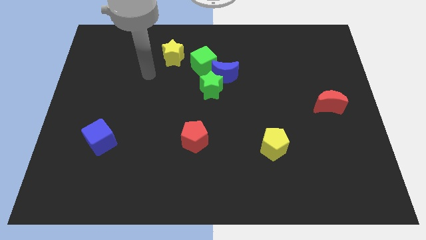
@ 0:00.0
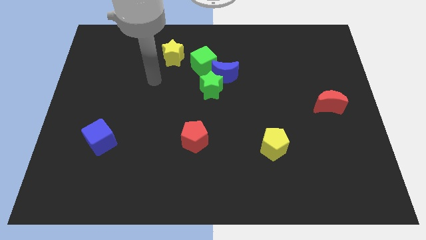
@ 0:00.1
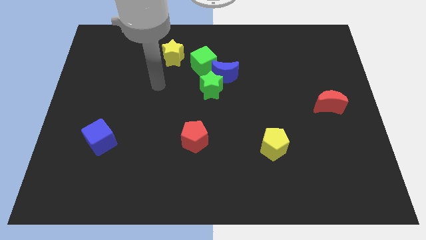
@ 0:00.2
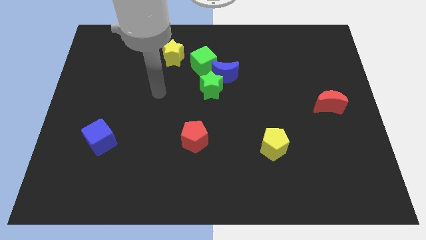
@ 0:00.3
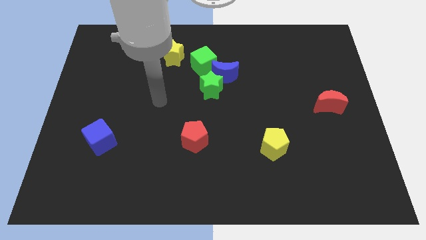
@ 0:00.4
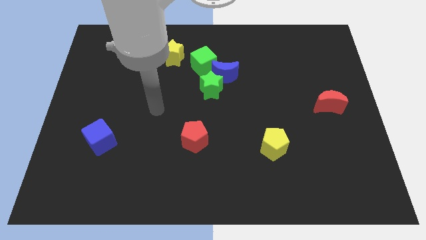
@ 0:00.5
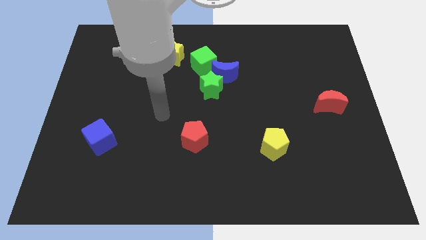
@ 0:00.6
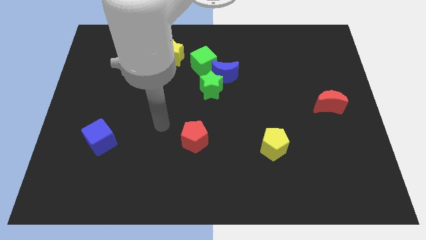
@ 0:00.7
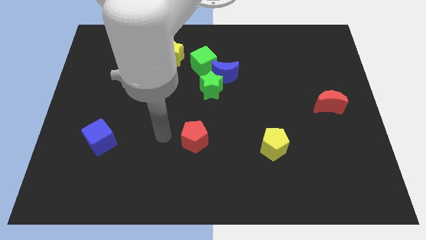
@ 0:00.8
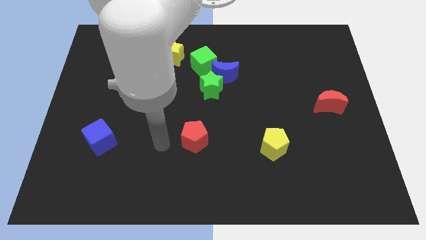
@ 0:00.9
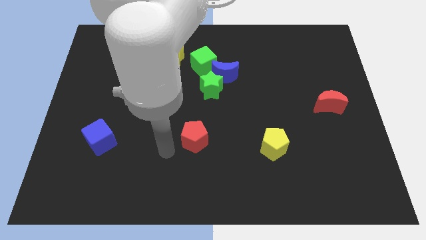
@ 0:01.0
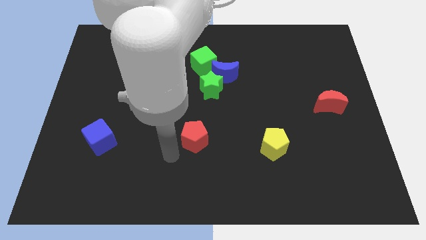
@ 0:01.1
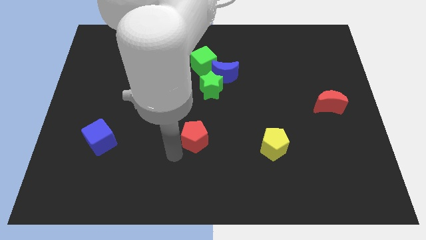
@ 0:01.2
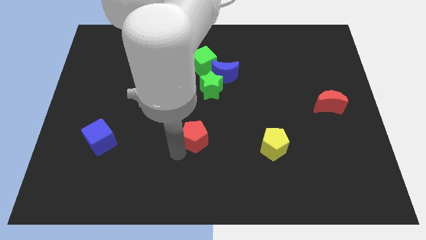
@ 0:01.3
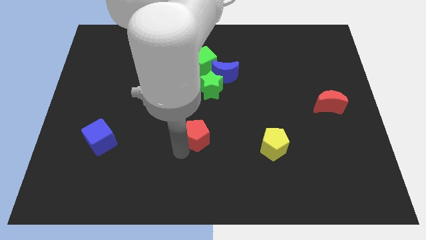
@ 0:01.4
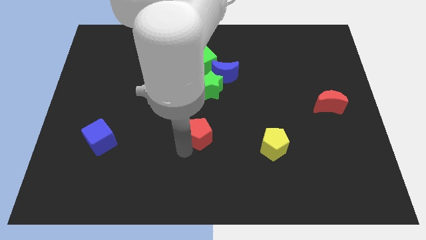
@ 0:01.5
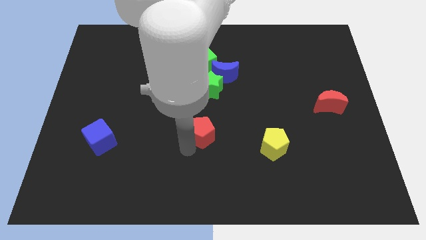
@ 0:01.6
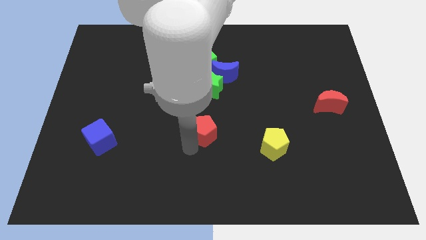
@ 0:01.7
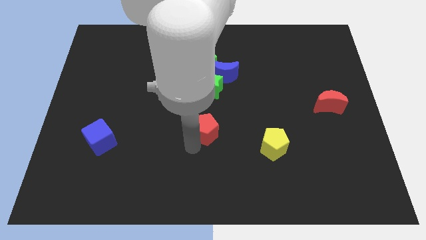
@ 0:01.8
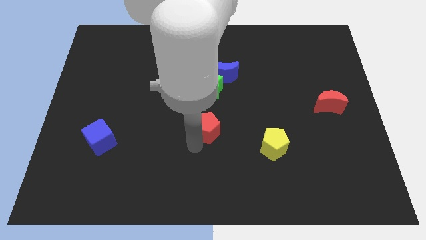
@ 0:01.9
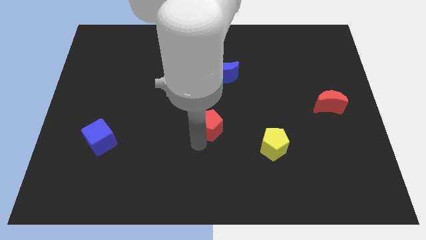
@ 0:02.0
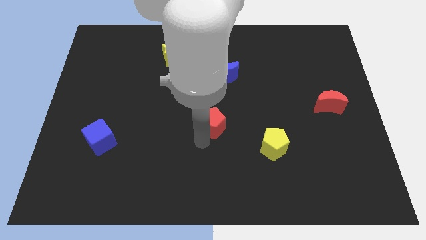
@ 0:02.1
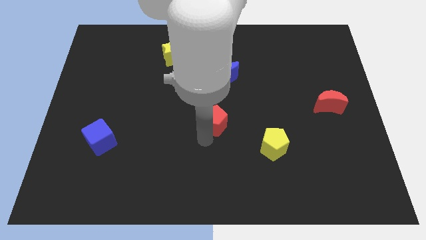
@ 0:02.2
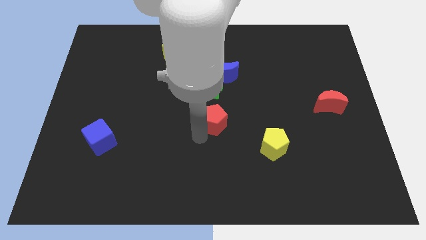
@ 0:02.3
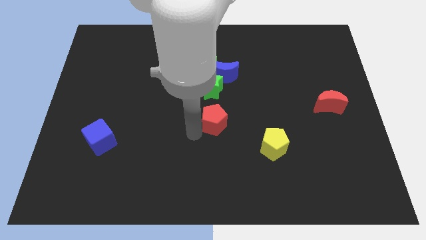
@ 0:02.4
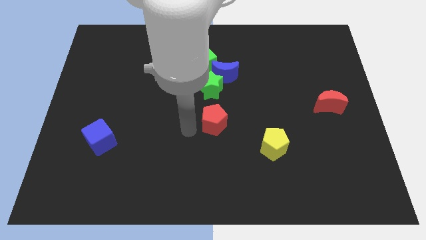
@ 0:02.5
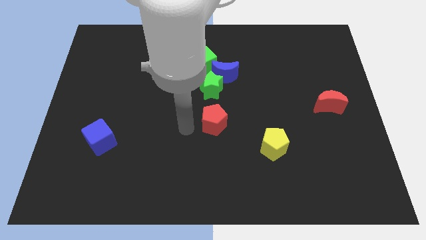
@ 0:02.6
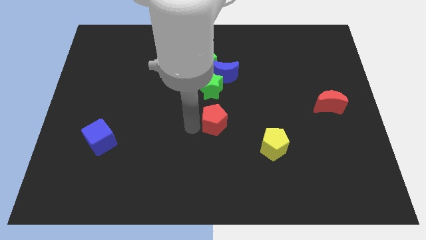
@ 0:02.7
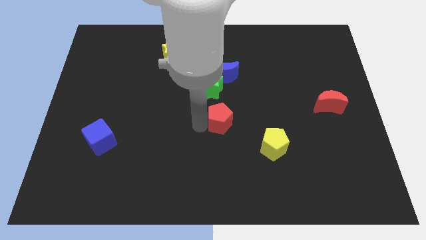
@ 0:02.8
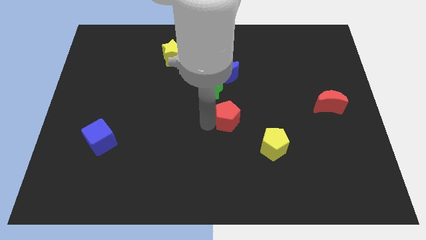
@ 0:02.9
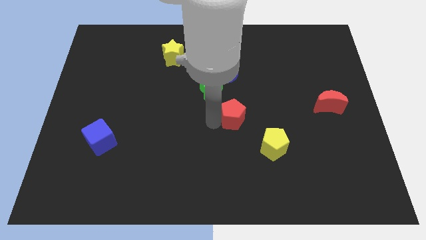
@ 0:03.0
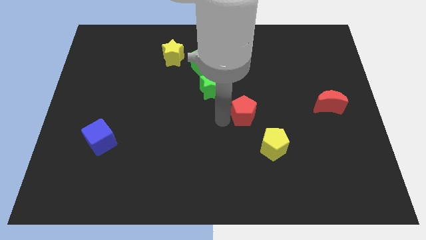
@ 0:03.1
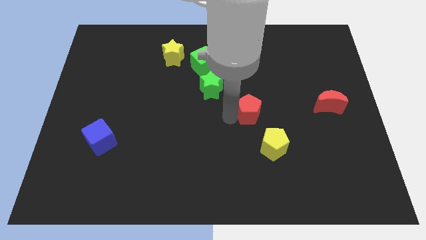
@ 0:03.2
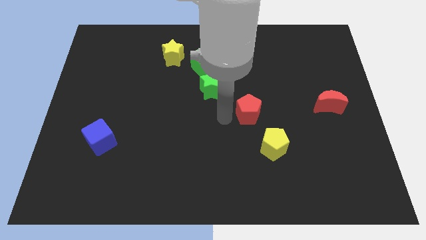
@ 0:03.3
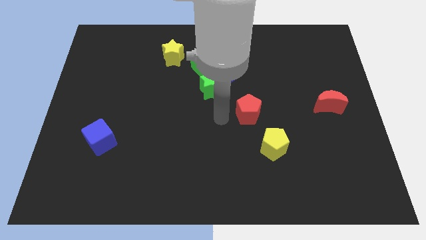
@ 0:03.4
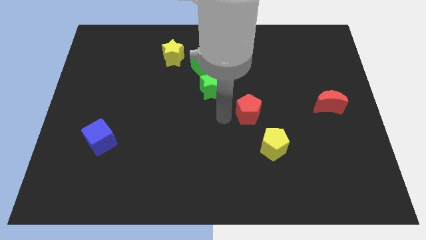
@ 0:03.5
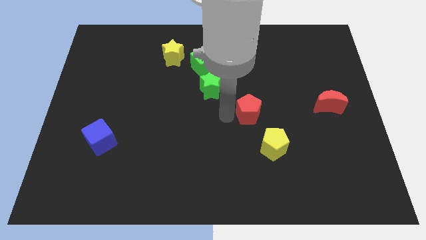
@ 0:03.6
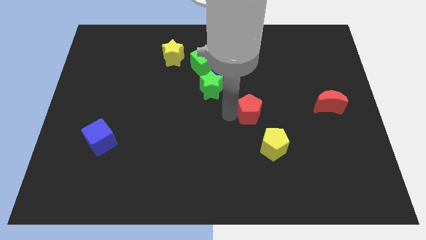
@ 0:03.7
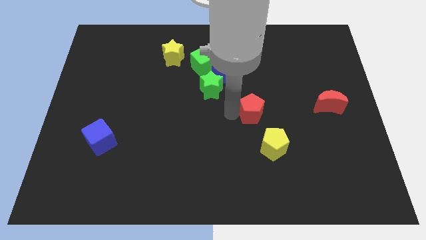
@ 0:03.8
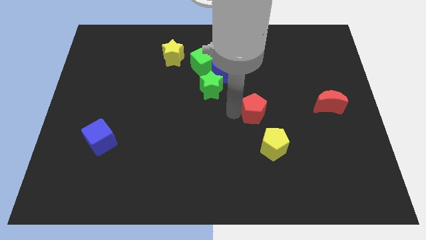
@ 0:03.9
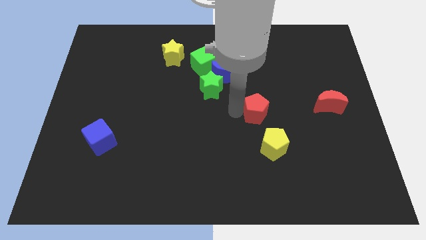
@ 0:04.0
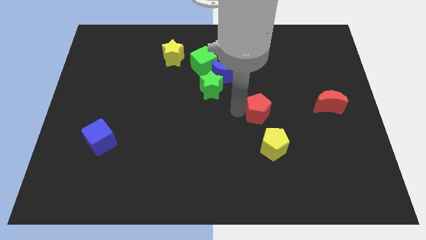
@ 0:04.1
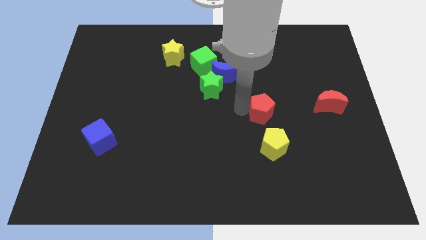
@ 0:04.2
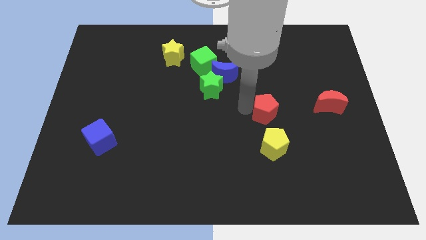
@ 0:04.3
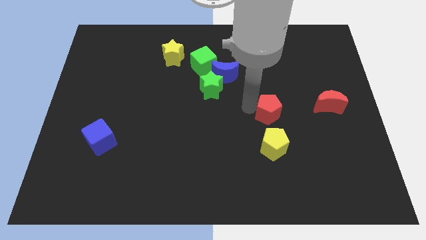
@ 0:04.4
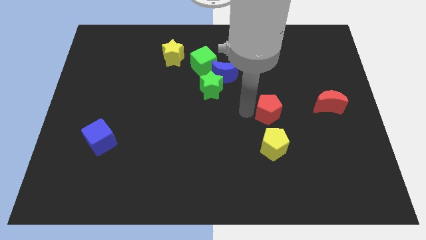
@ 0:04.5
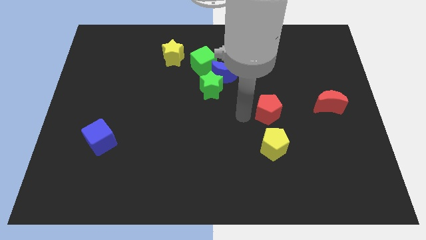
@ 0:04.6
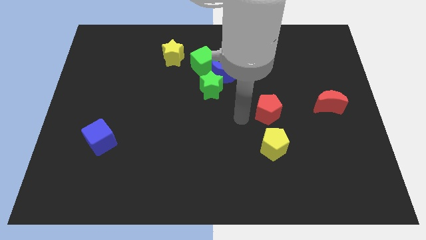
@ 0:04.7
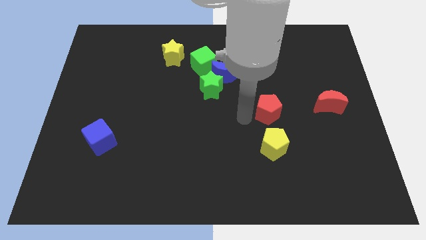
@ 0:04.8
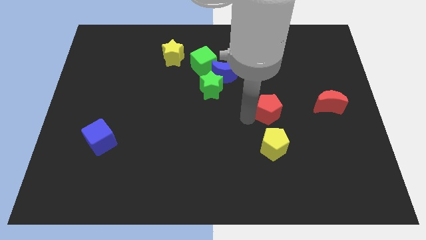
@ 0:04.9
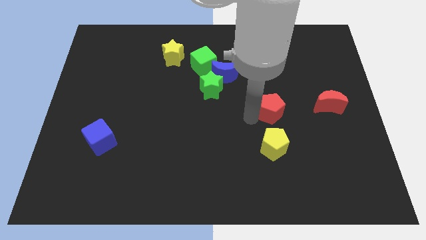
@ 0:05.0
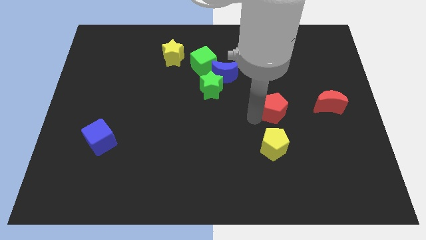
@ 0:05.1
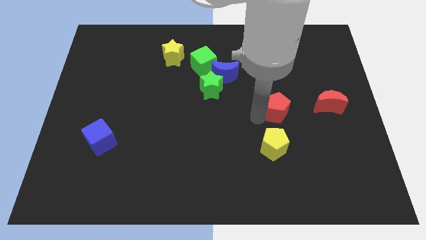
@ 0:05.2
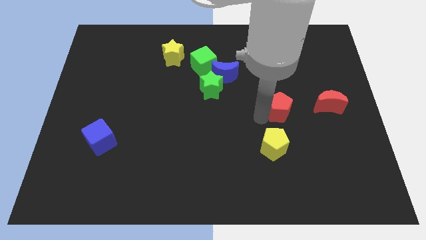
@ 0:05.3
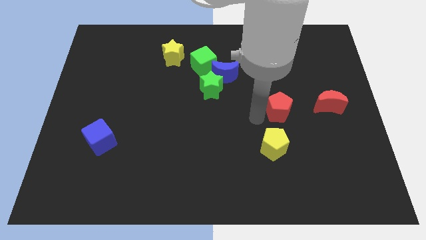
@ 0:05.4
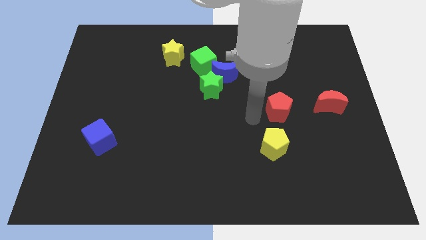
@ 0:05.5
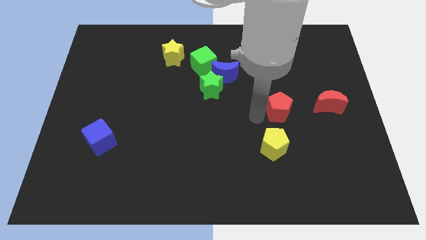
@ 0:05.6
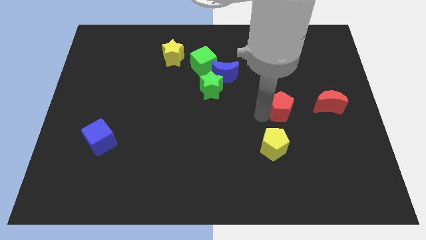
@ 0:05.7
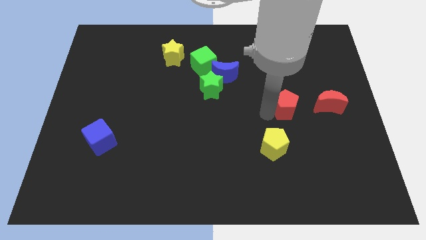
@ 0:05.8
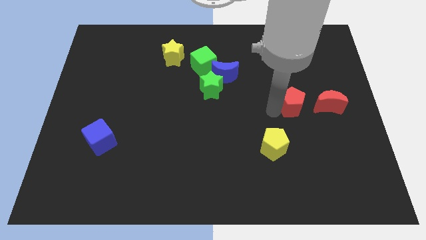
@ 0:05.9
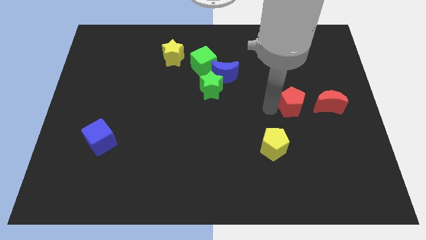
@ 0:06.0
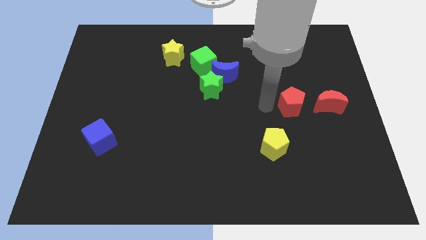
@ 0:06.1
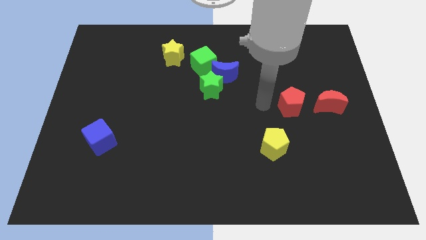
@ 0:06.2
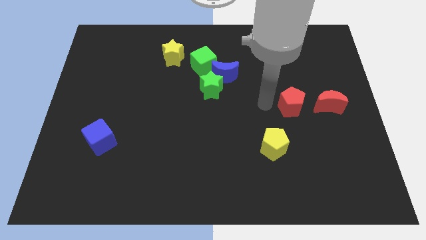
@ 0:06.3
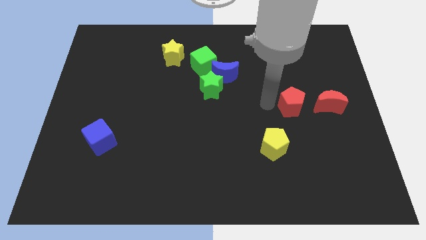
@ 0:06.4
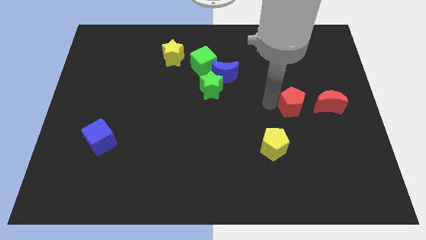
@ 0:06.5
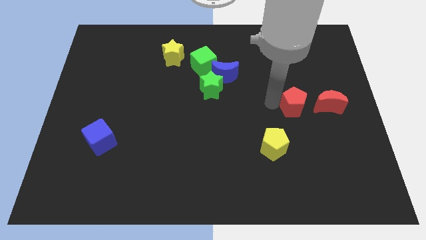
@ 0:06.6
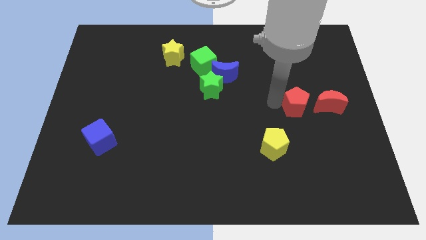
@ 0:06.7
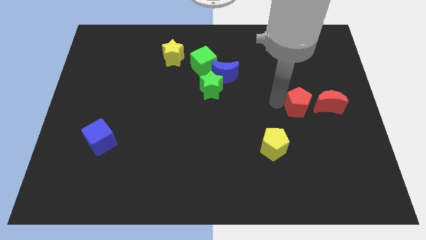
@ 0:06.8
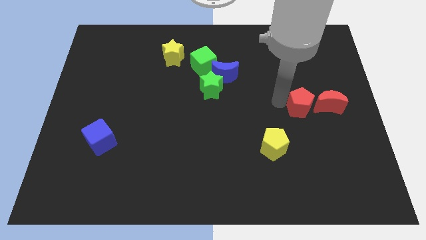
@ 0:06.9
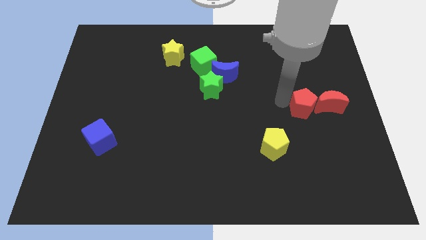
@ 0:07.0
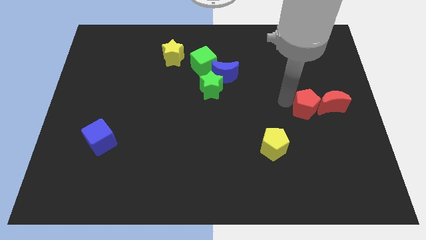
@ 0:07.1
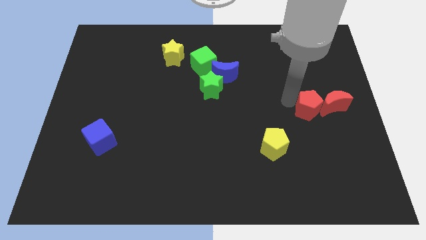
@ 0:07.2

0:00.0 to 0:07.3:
put the red pentagon next to the red moon

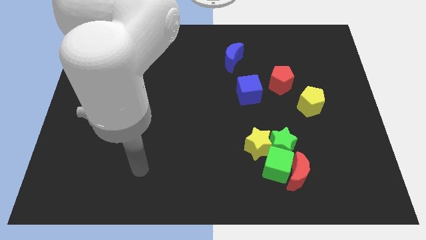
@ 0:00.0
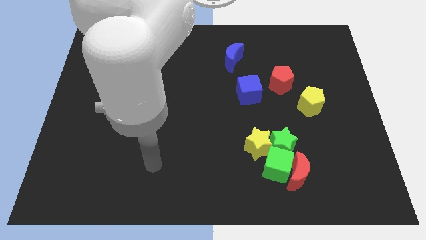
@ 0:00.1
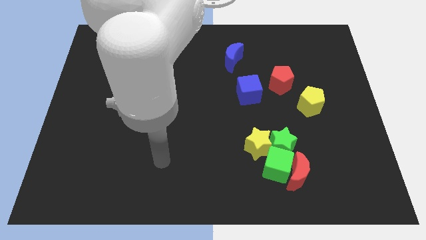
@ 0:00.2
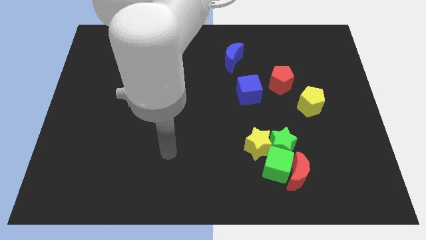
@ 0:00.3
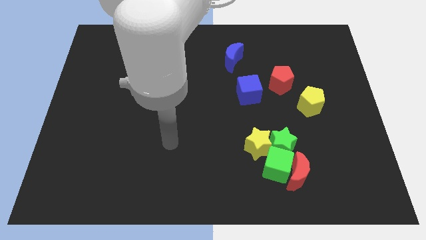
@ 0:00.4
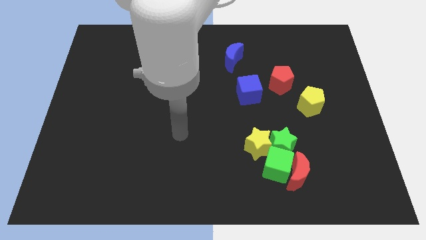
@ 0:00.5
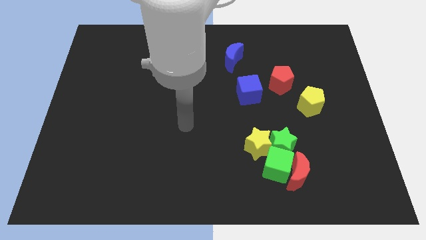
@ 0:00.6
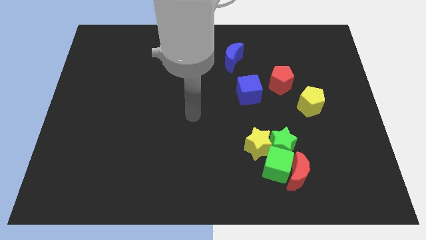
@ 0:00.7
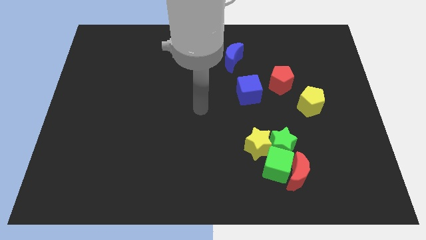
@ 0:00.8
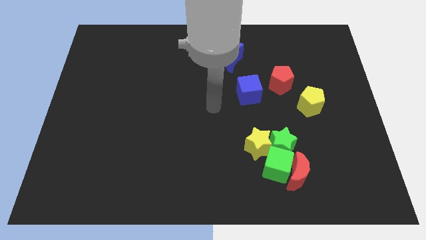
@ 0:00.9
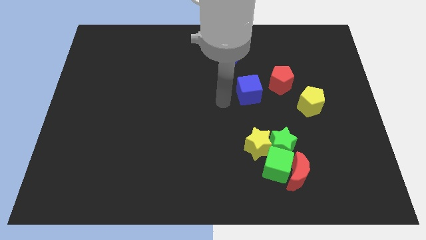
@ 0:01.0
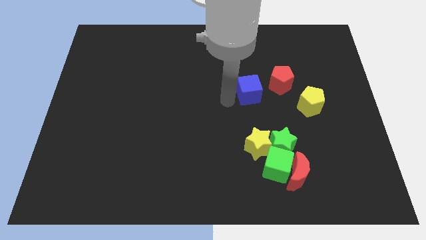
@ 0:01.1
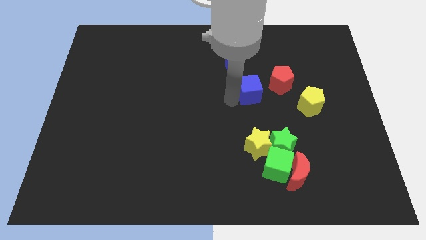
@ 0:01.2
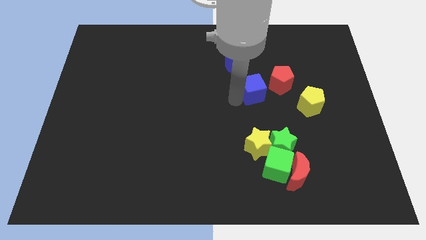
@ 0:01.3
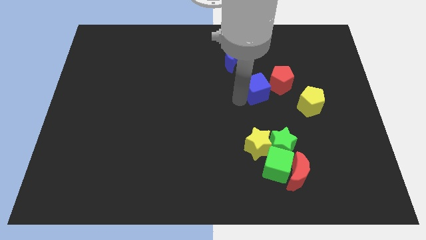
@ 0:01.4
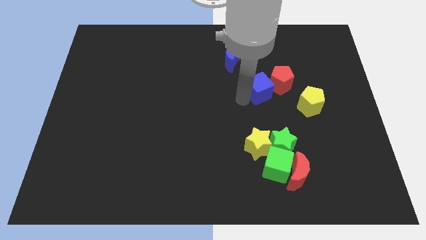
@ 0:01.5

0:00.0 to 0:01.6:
slide the blue cube close to the red pentagon
